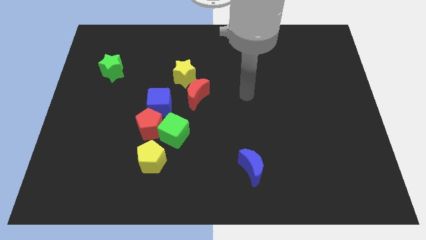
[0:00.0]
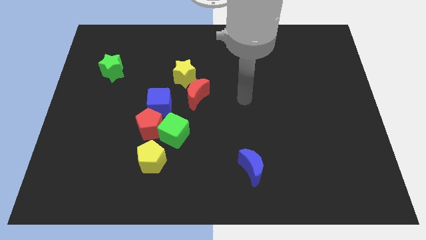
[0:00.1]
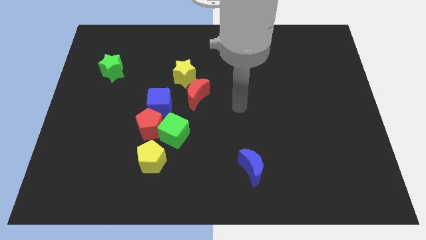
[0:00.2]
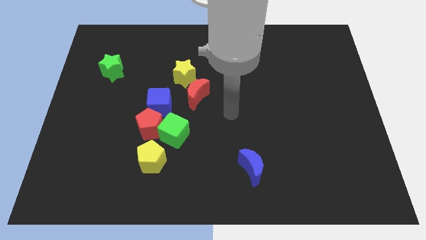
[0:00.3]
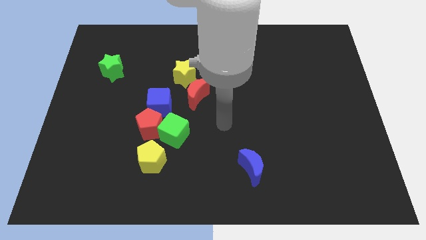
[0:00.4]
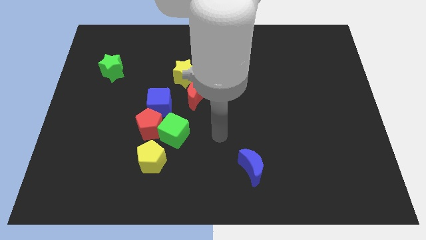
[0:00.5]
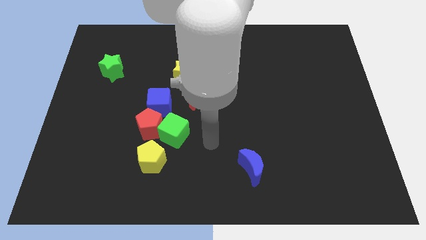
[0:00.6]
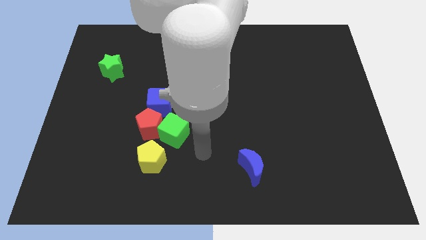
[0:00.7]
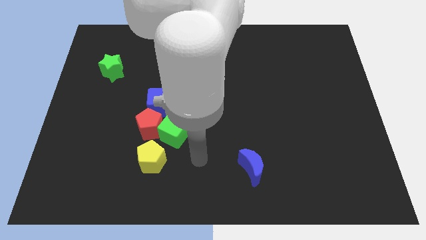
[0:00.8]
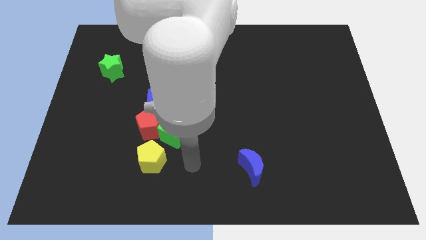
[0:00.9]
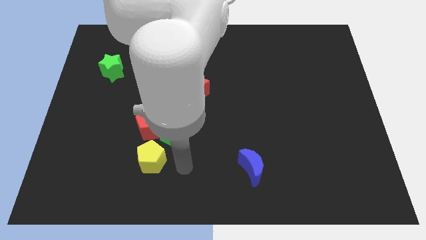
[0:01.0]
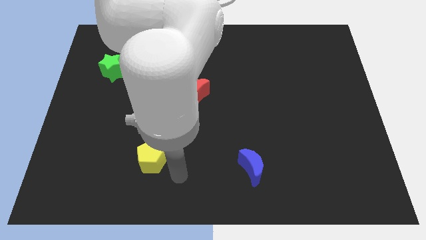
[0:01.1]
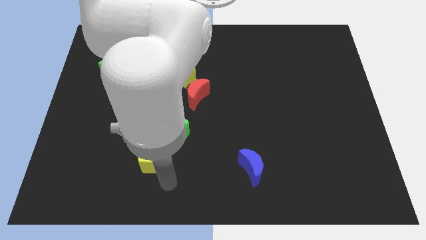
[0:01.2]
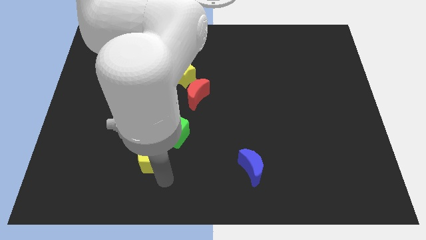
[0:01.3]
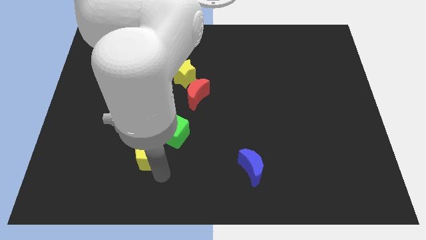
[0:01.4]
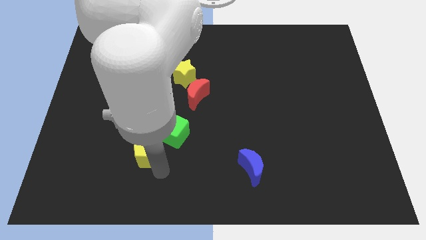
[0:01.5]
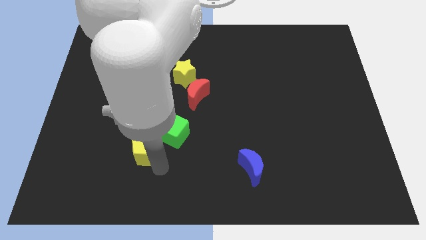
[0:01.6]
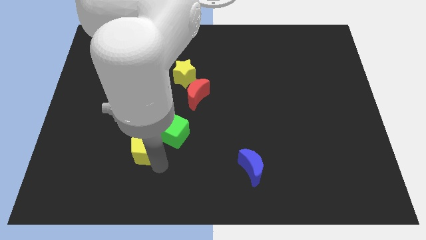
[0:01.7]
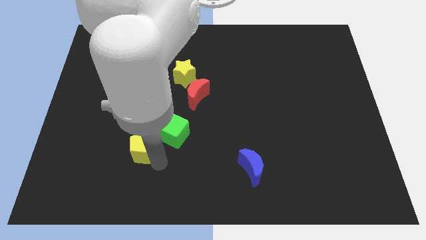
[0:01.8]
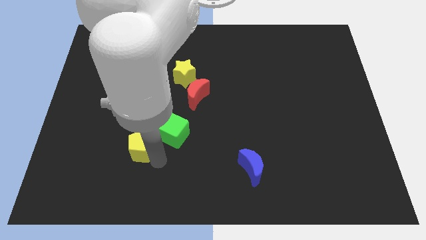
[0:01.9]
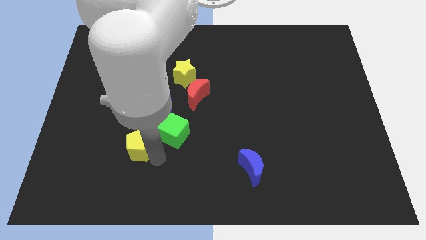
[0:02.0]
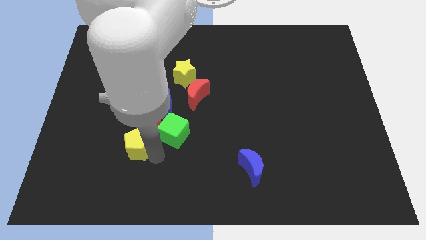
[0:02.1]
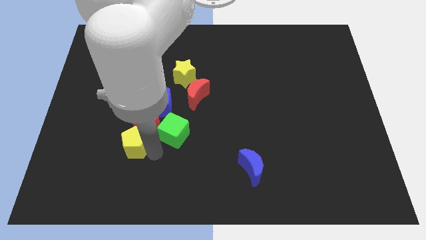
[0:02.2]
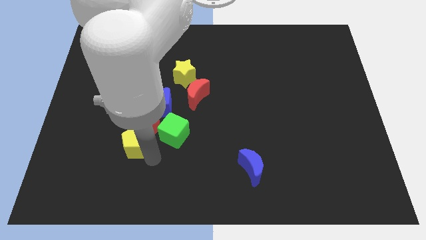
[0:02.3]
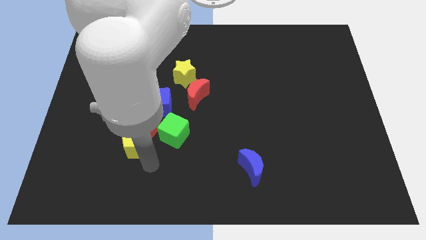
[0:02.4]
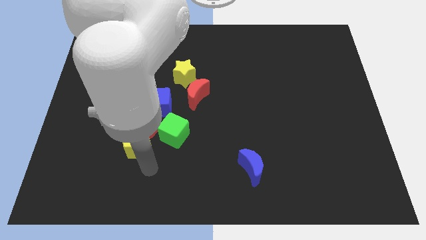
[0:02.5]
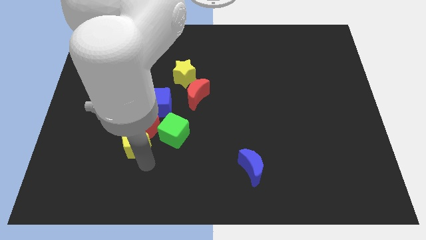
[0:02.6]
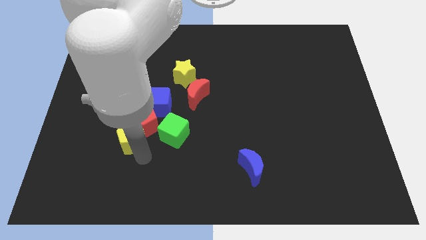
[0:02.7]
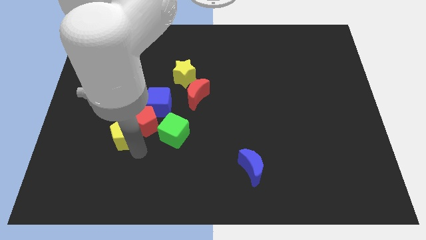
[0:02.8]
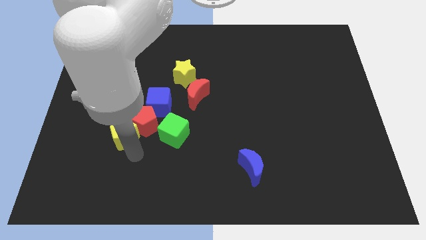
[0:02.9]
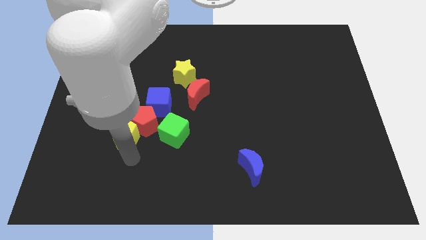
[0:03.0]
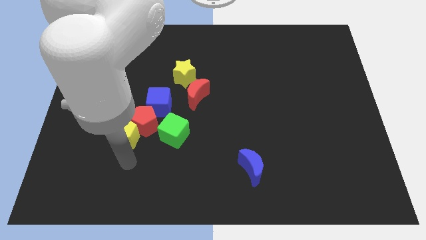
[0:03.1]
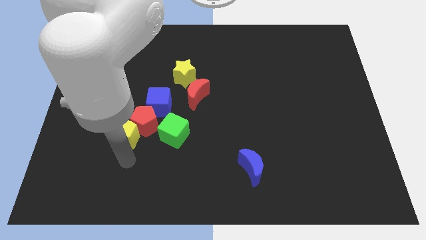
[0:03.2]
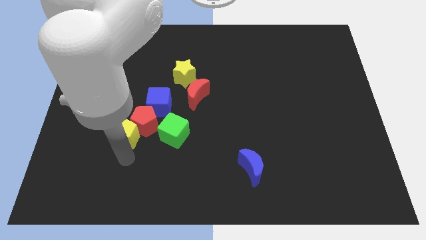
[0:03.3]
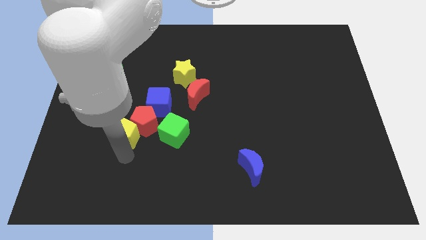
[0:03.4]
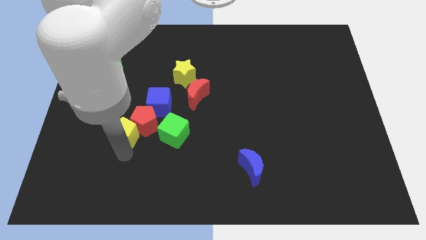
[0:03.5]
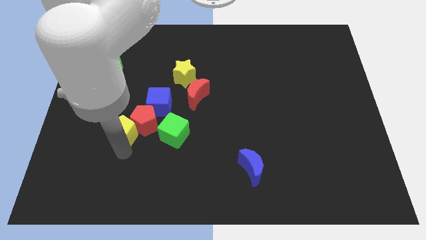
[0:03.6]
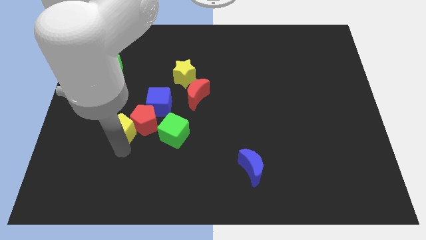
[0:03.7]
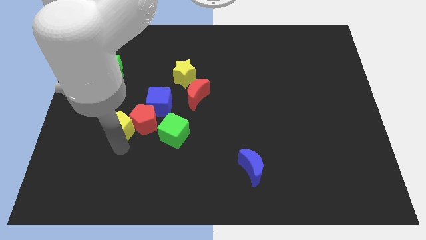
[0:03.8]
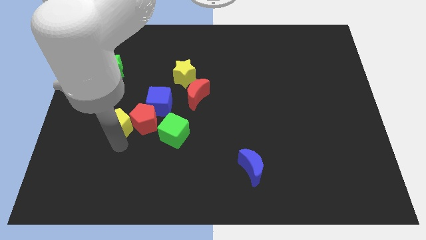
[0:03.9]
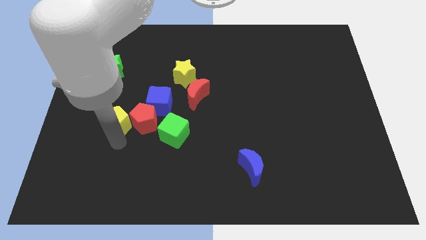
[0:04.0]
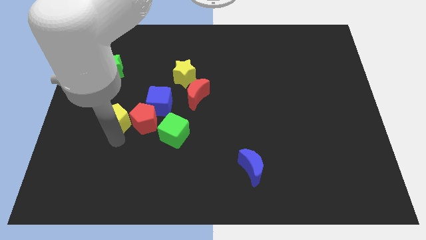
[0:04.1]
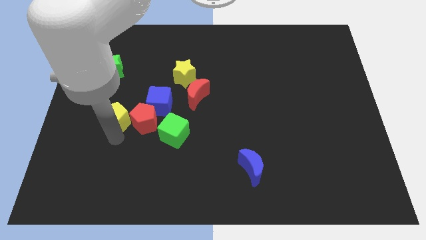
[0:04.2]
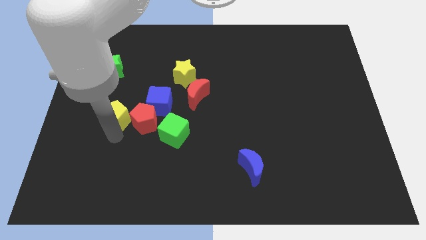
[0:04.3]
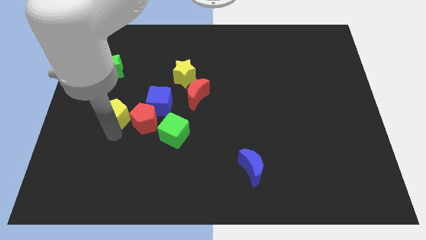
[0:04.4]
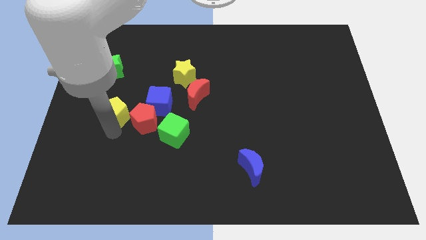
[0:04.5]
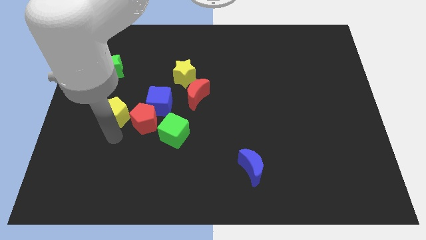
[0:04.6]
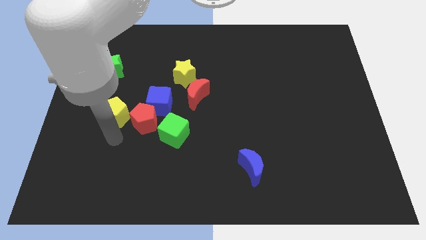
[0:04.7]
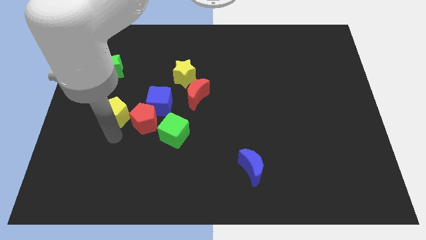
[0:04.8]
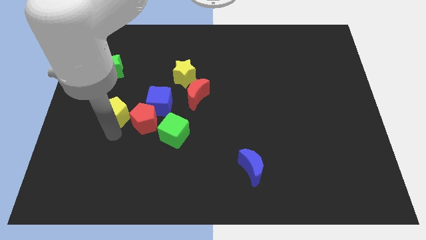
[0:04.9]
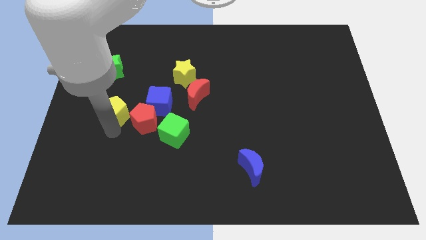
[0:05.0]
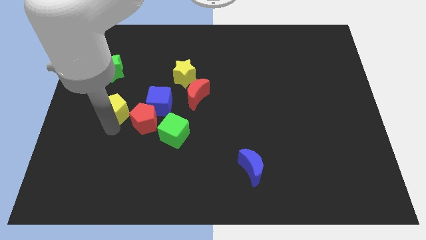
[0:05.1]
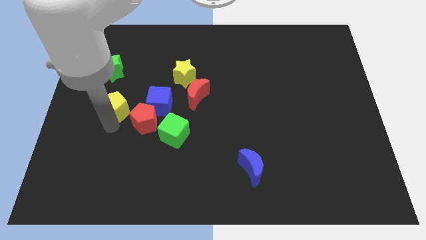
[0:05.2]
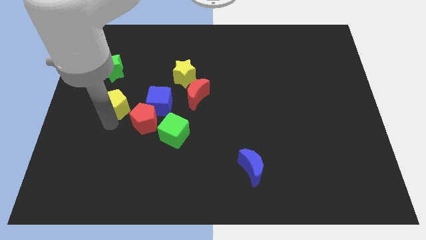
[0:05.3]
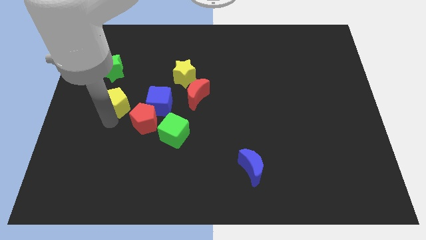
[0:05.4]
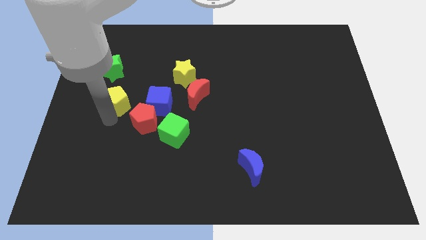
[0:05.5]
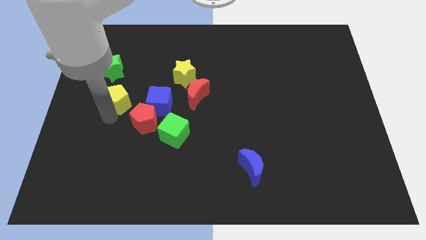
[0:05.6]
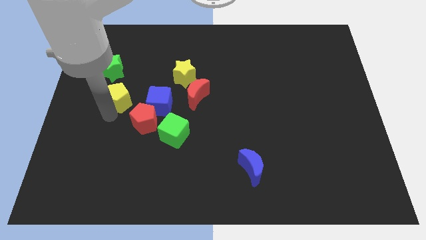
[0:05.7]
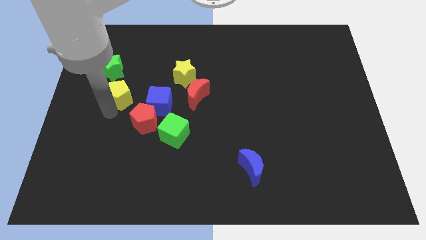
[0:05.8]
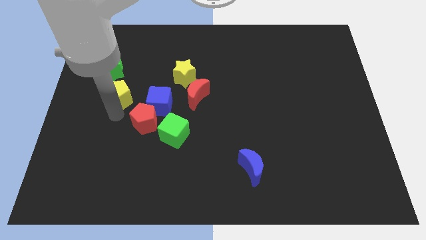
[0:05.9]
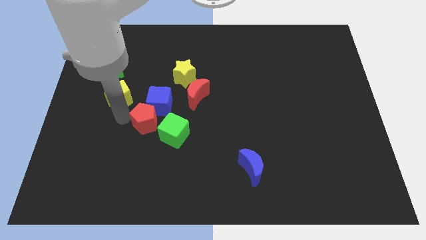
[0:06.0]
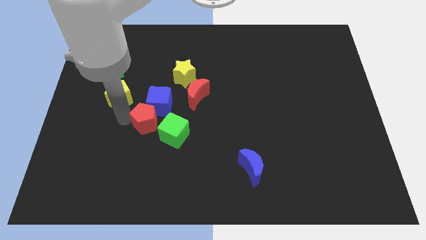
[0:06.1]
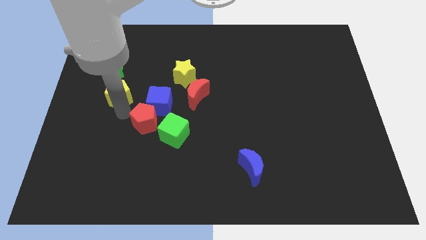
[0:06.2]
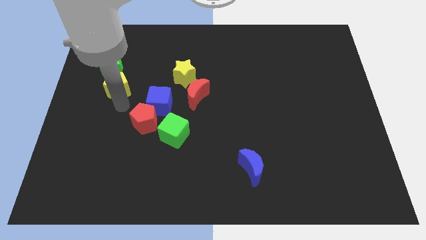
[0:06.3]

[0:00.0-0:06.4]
put the yellow pentagon next to the green star

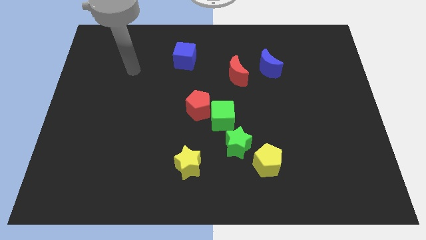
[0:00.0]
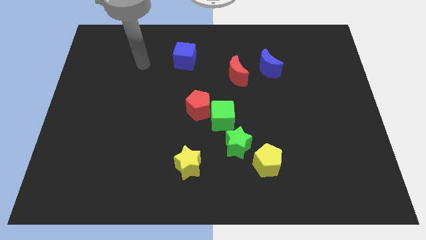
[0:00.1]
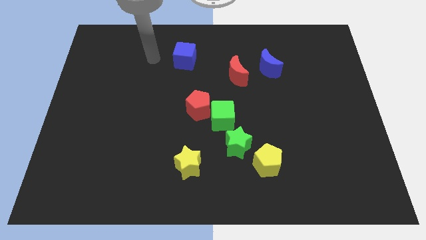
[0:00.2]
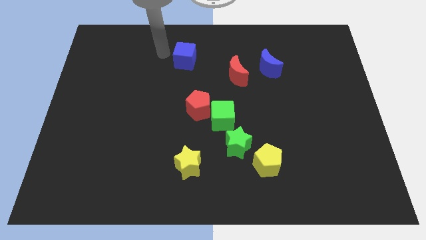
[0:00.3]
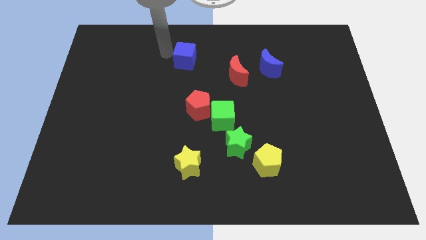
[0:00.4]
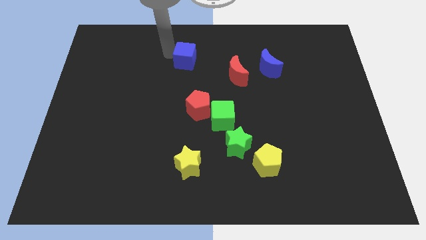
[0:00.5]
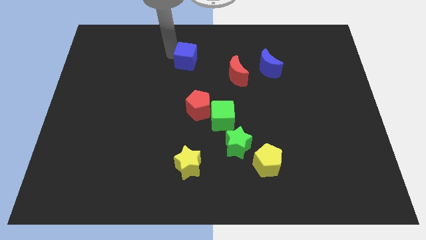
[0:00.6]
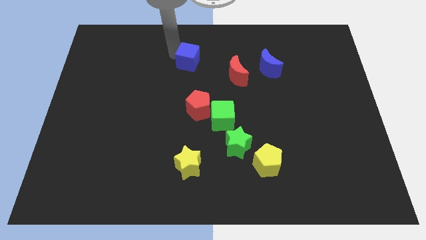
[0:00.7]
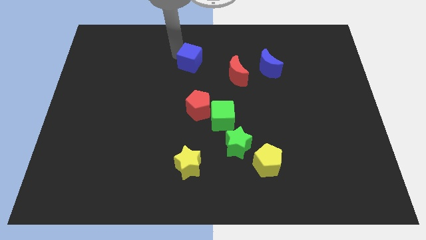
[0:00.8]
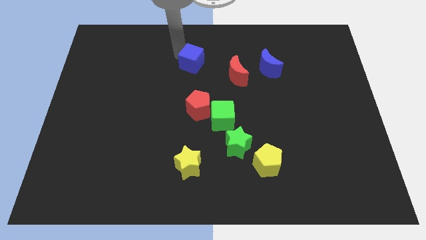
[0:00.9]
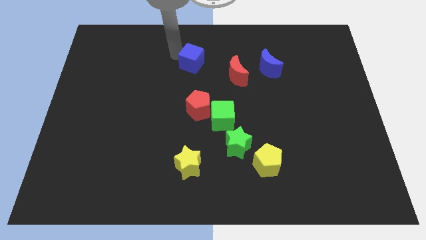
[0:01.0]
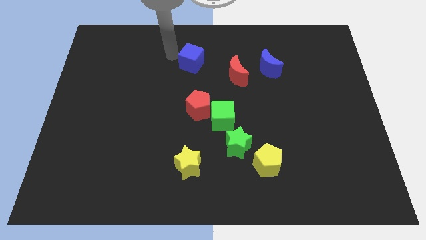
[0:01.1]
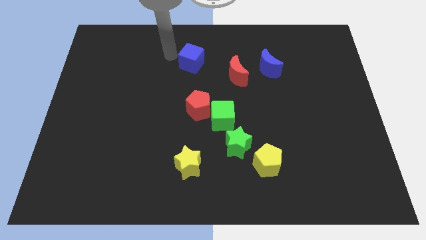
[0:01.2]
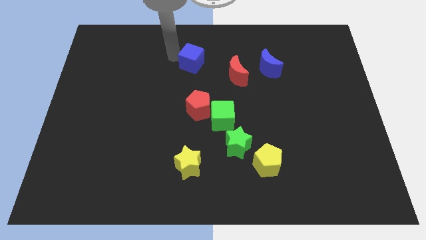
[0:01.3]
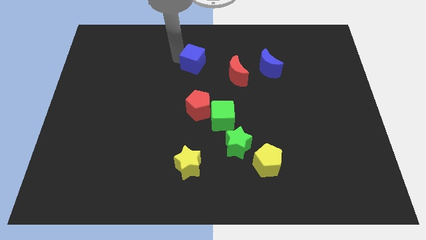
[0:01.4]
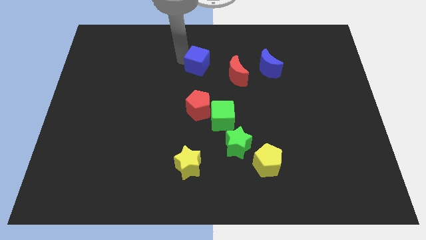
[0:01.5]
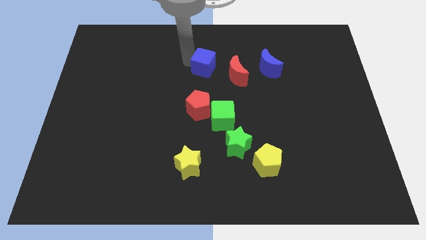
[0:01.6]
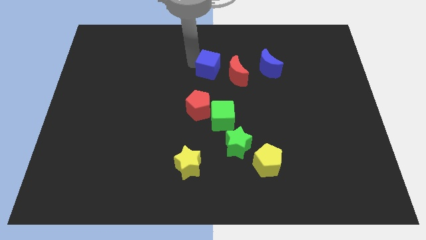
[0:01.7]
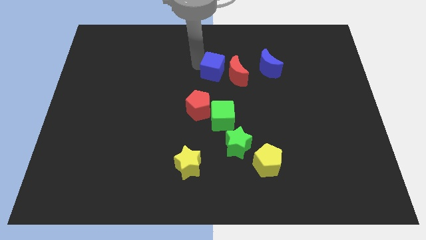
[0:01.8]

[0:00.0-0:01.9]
slide the blue cube next to the red moon
